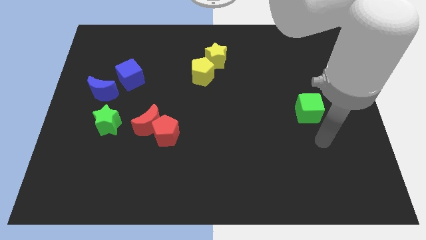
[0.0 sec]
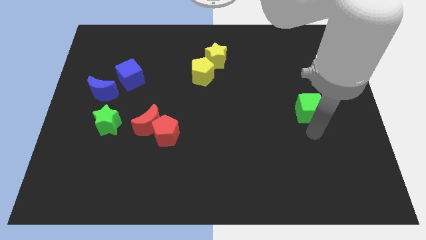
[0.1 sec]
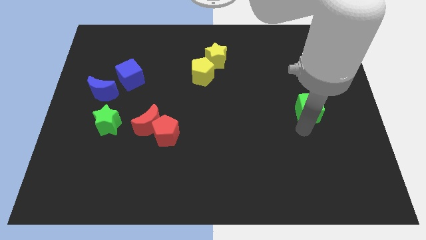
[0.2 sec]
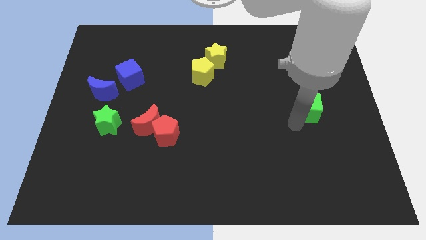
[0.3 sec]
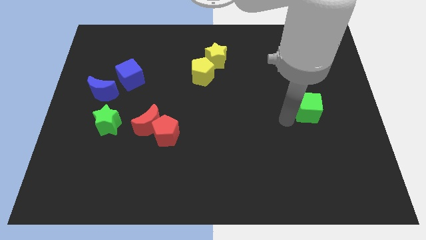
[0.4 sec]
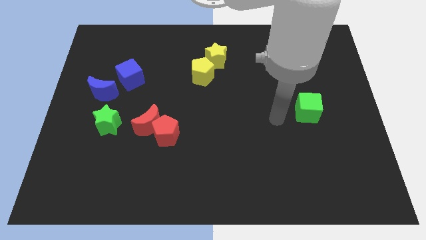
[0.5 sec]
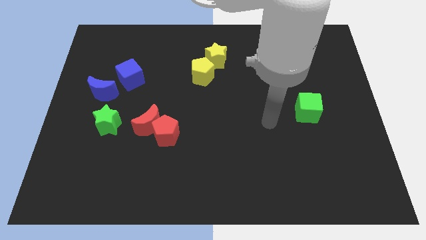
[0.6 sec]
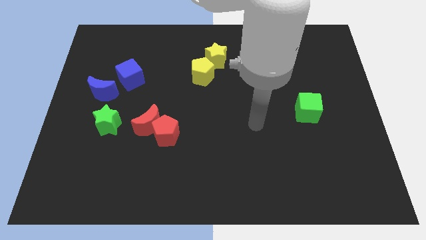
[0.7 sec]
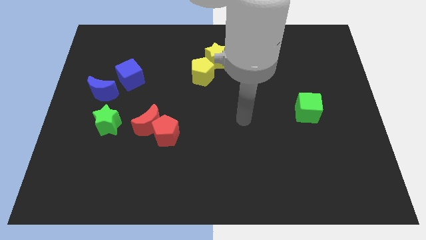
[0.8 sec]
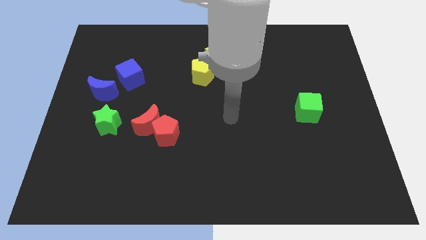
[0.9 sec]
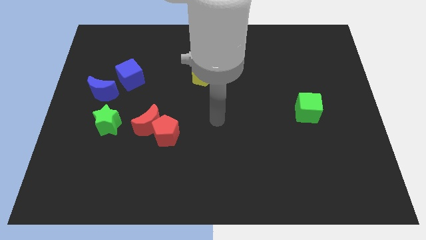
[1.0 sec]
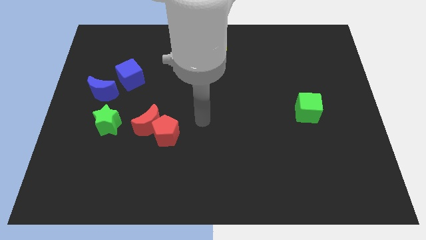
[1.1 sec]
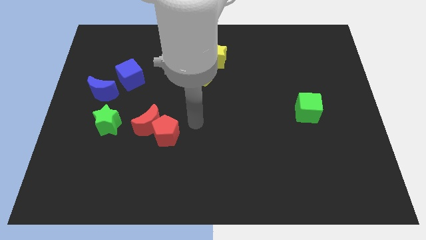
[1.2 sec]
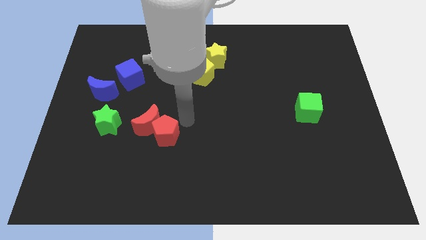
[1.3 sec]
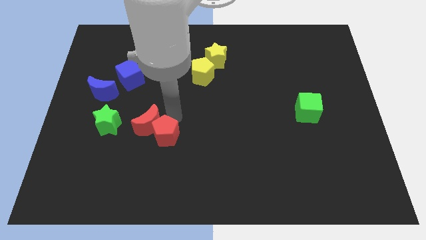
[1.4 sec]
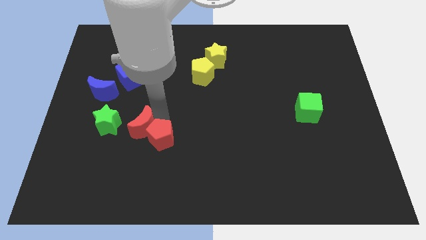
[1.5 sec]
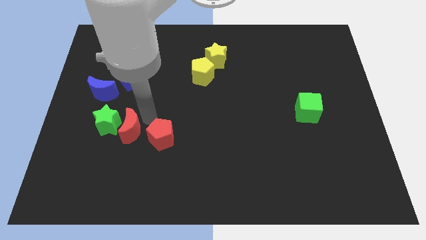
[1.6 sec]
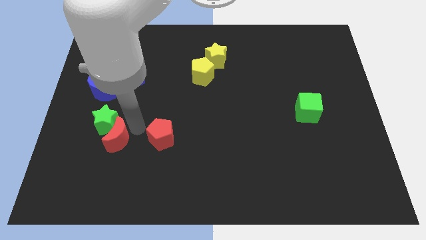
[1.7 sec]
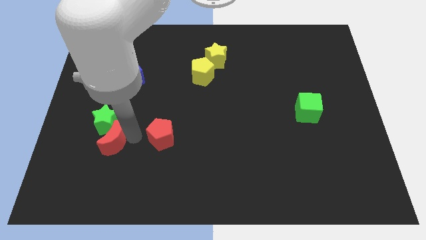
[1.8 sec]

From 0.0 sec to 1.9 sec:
pull the red pentagon apart from the red moon

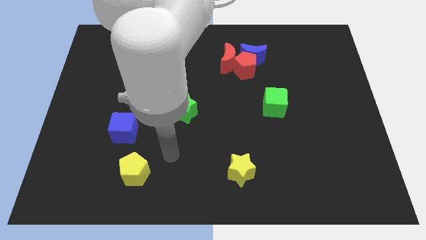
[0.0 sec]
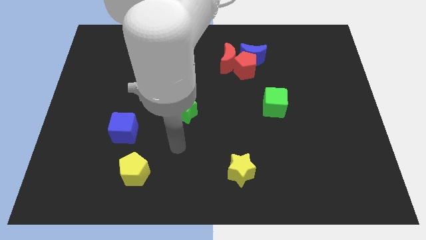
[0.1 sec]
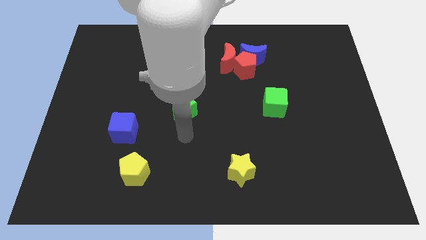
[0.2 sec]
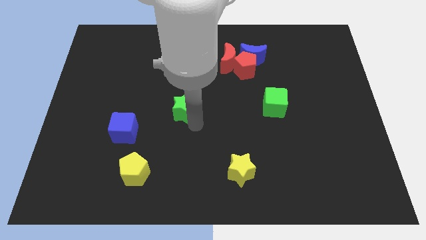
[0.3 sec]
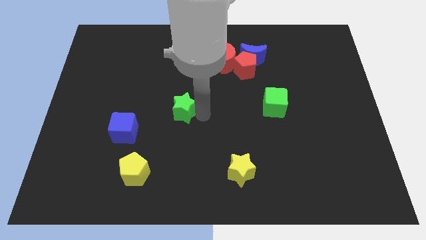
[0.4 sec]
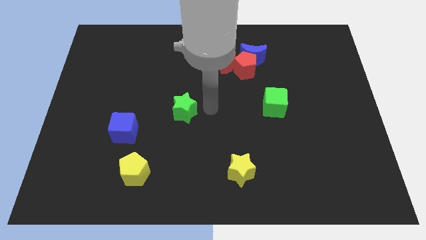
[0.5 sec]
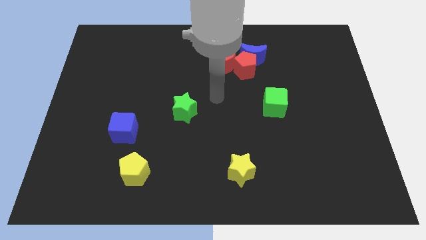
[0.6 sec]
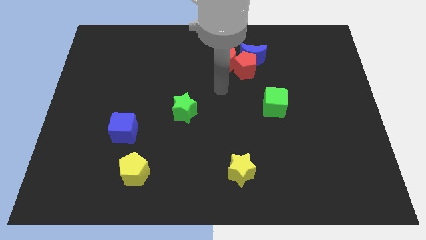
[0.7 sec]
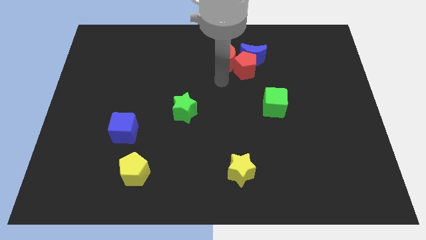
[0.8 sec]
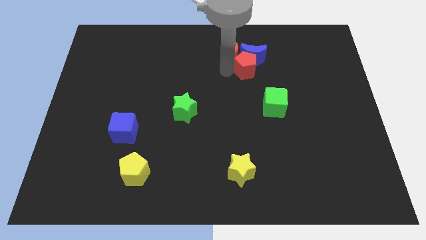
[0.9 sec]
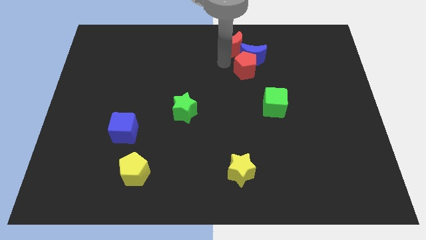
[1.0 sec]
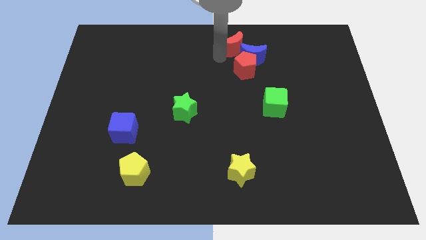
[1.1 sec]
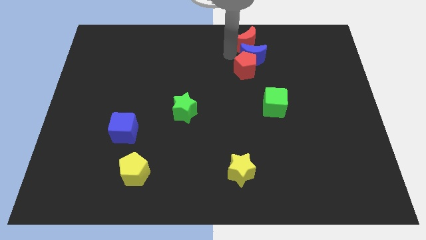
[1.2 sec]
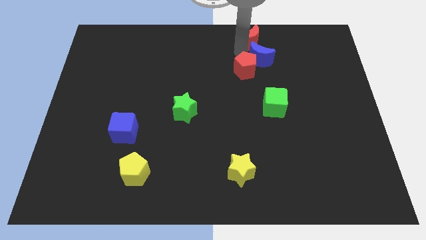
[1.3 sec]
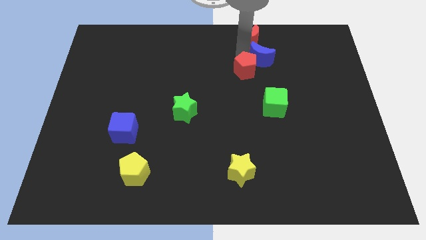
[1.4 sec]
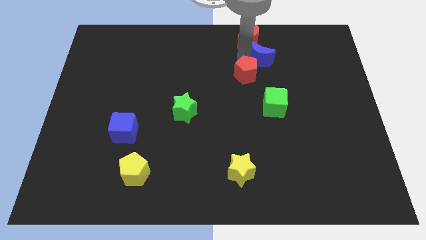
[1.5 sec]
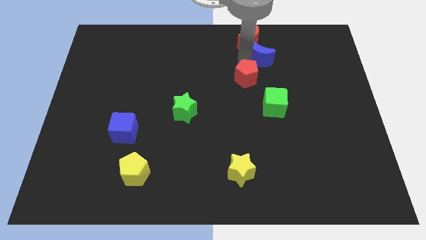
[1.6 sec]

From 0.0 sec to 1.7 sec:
pull the red pentagon apart from the blue moon and red moon

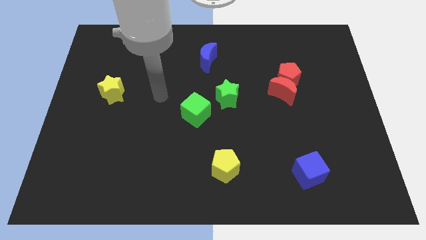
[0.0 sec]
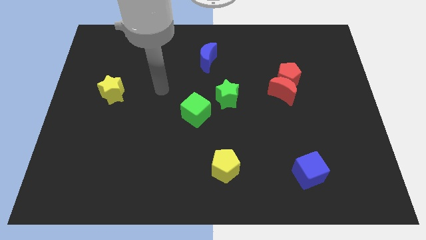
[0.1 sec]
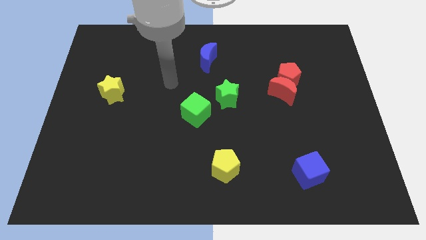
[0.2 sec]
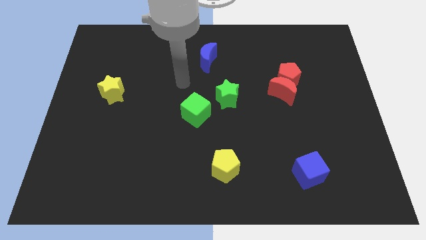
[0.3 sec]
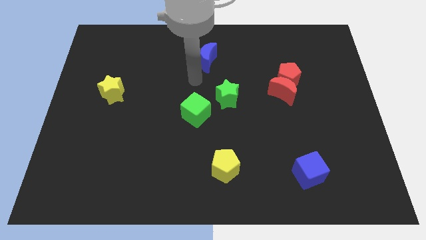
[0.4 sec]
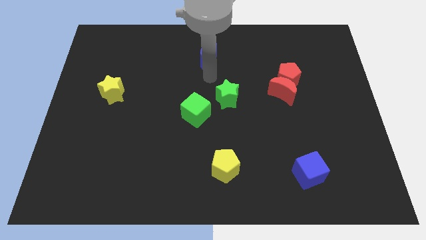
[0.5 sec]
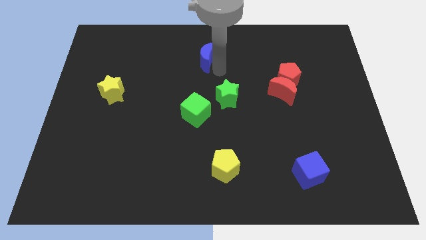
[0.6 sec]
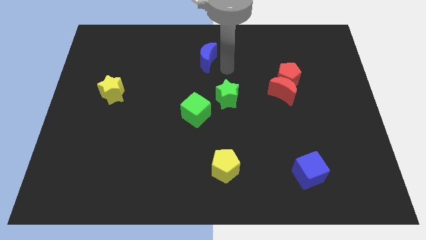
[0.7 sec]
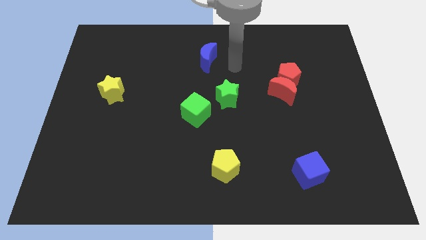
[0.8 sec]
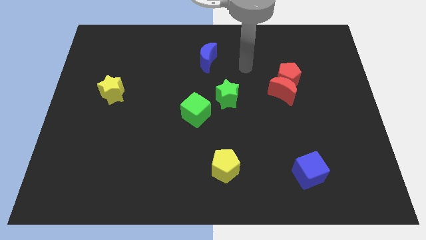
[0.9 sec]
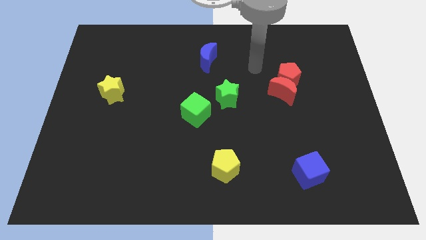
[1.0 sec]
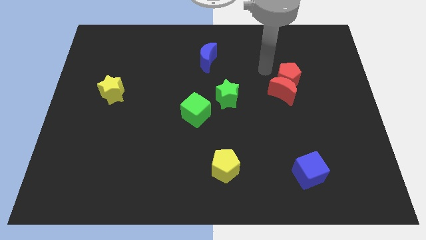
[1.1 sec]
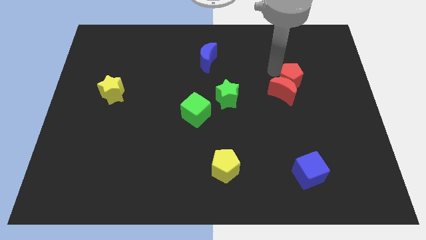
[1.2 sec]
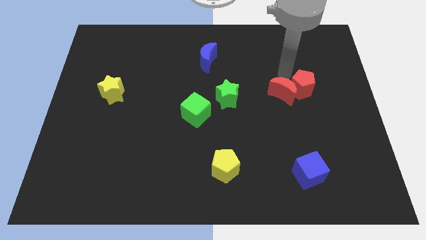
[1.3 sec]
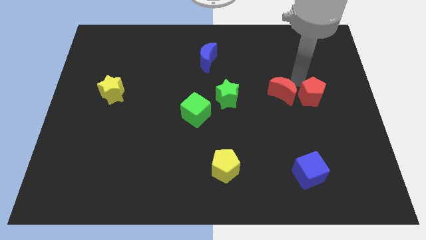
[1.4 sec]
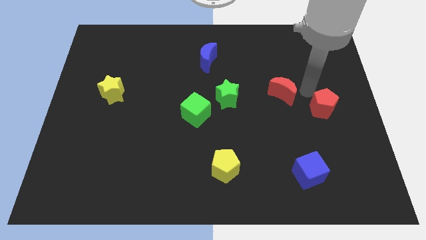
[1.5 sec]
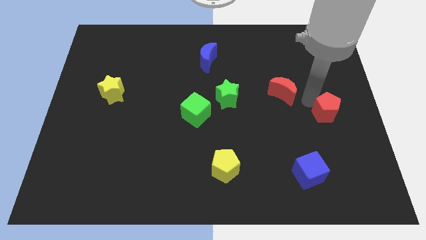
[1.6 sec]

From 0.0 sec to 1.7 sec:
separate the red moon from the red pentagon

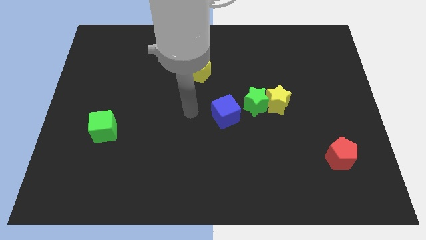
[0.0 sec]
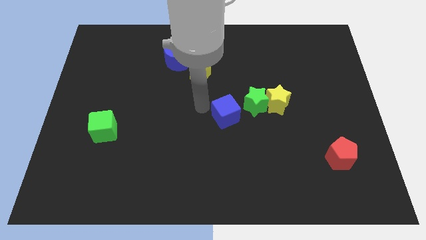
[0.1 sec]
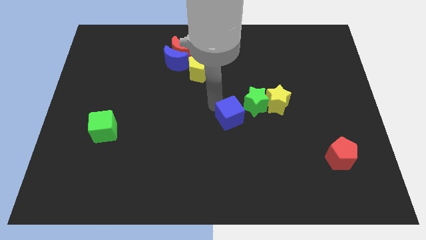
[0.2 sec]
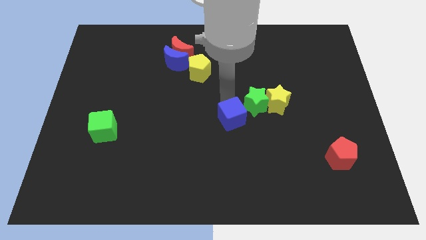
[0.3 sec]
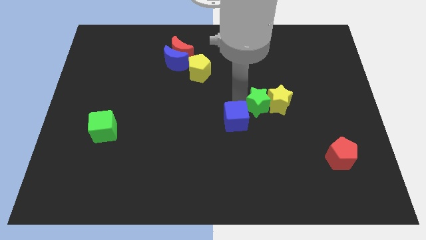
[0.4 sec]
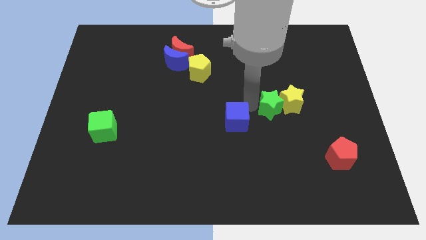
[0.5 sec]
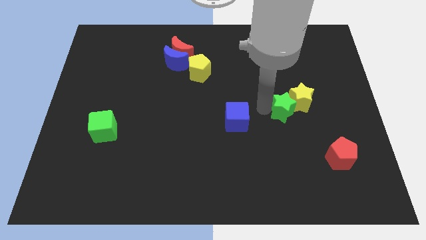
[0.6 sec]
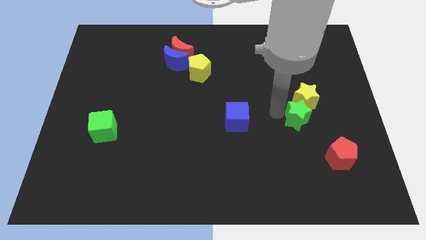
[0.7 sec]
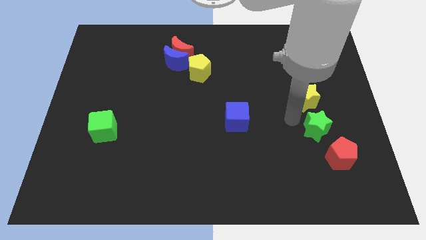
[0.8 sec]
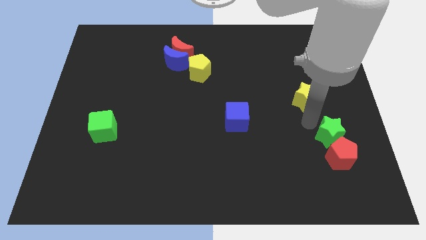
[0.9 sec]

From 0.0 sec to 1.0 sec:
separate the yellow star from the green star

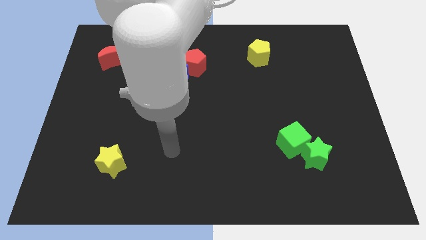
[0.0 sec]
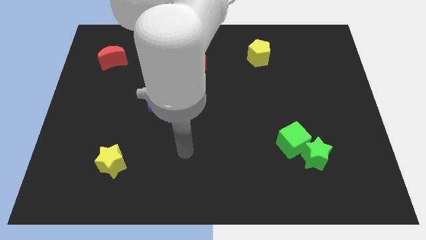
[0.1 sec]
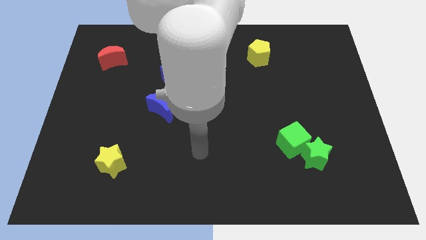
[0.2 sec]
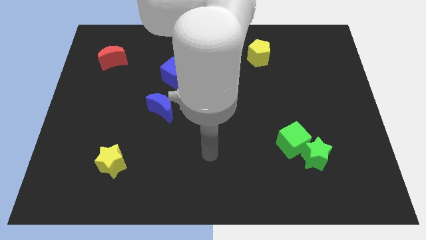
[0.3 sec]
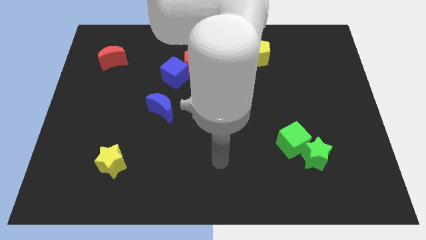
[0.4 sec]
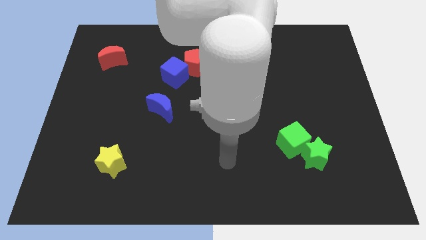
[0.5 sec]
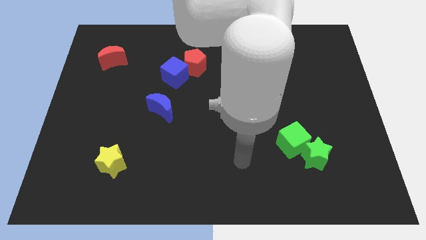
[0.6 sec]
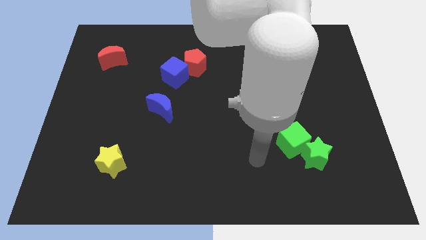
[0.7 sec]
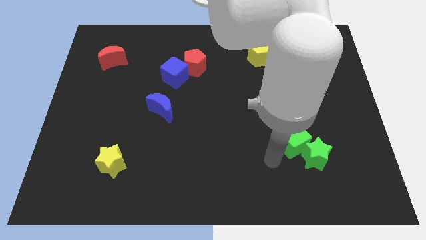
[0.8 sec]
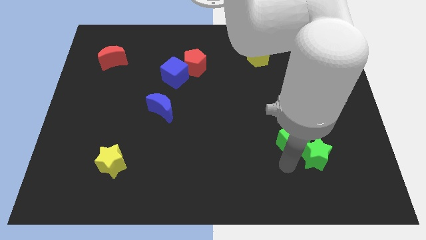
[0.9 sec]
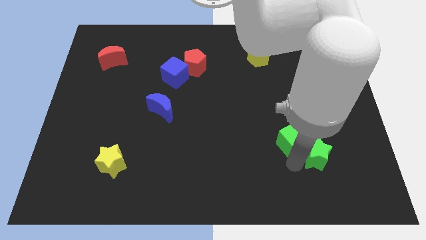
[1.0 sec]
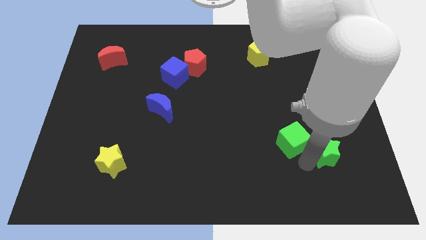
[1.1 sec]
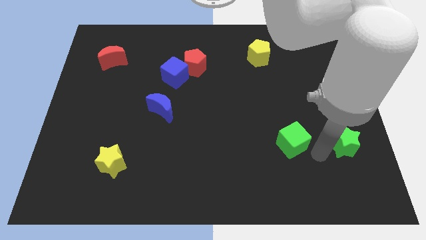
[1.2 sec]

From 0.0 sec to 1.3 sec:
move the green cube away from the green star

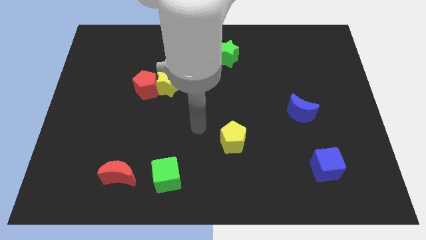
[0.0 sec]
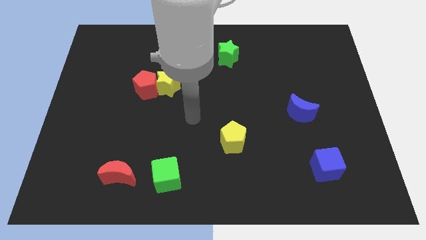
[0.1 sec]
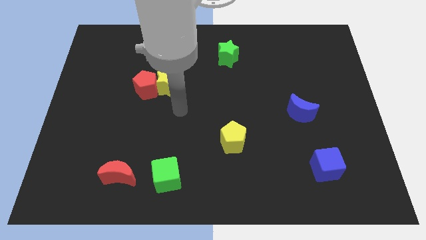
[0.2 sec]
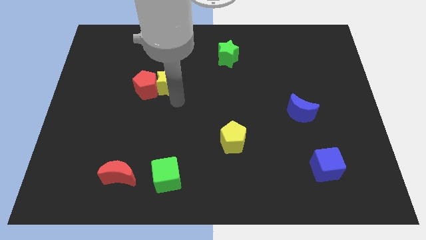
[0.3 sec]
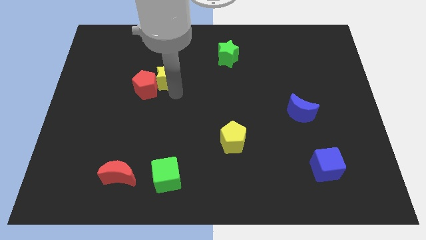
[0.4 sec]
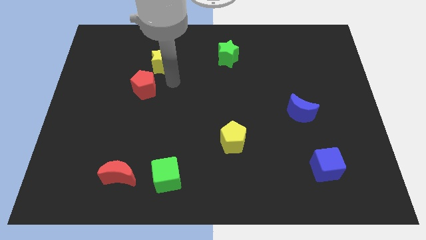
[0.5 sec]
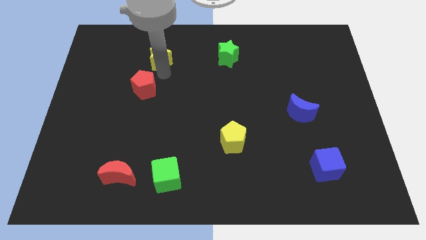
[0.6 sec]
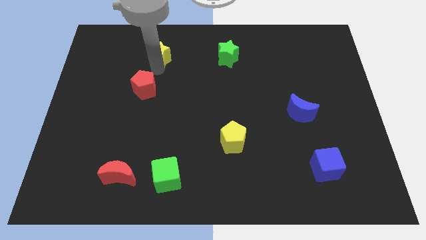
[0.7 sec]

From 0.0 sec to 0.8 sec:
separate the red pentagon from the yellow star

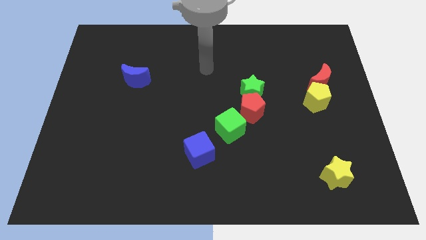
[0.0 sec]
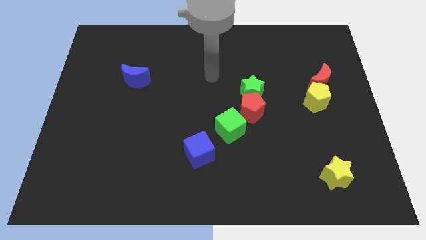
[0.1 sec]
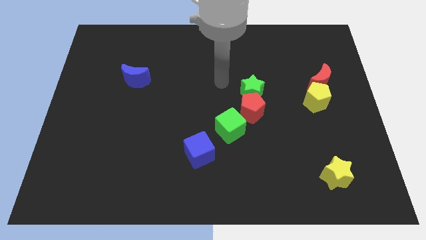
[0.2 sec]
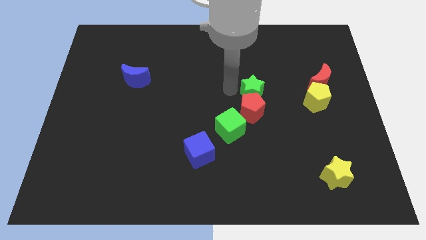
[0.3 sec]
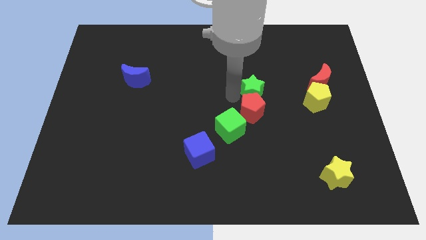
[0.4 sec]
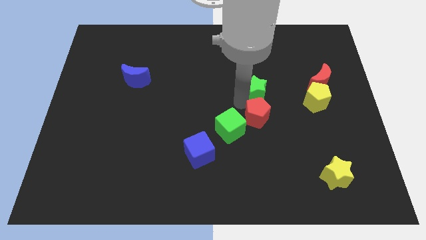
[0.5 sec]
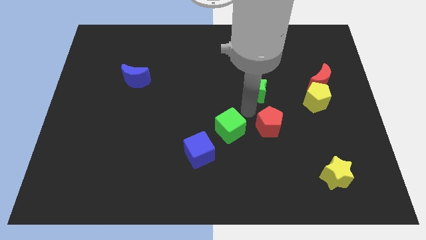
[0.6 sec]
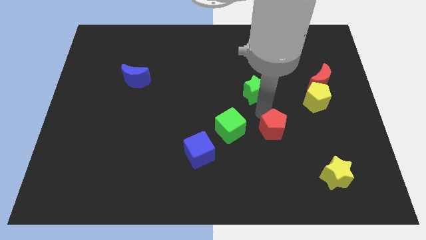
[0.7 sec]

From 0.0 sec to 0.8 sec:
move the green star away from the red pentagon

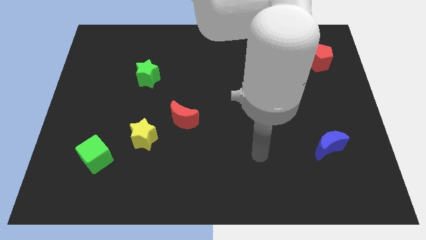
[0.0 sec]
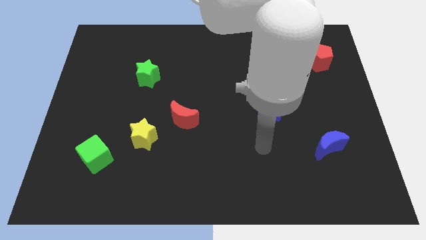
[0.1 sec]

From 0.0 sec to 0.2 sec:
move the blue cube away from the yellow pentagon
